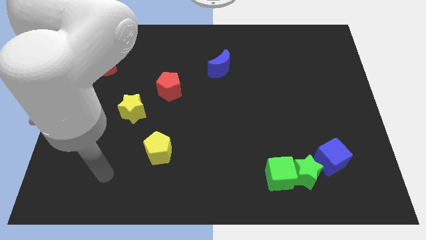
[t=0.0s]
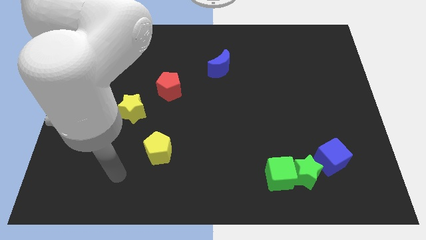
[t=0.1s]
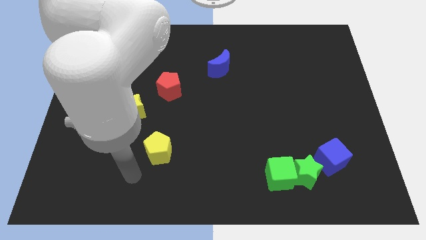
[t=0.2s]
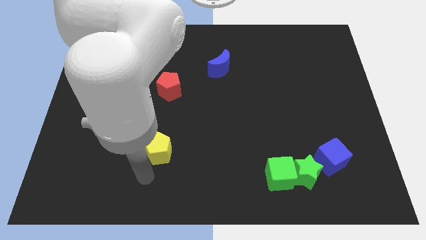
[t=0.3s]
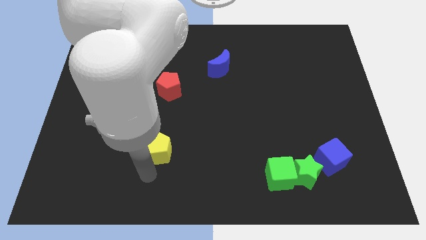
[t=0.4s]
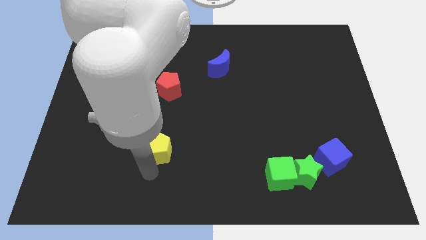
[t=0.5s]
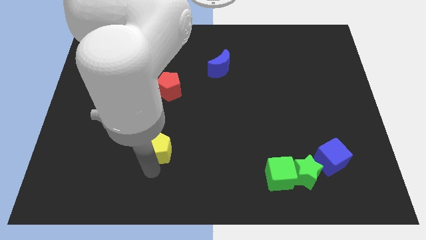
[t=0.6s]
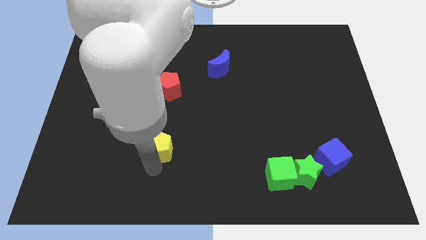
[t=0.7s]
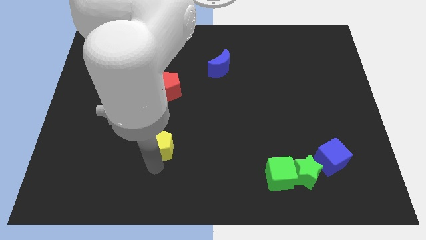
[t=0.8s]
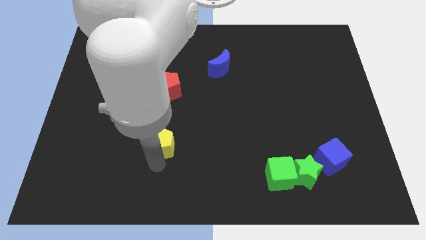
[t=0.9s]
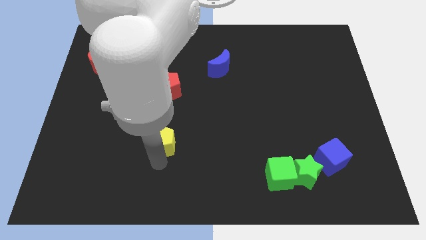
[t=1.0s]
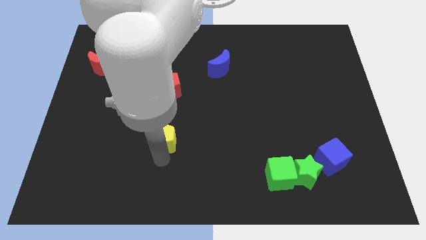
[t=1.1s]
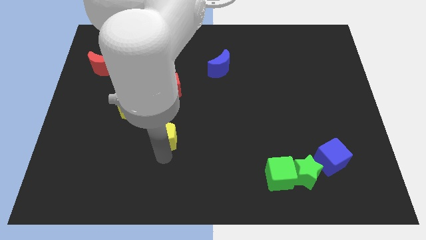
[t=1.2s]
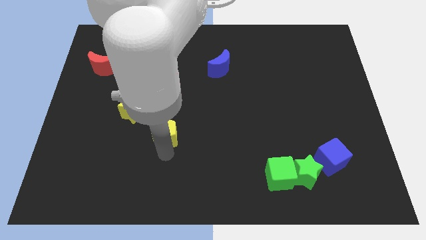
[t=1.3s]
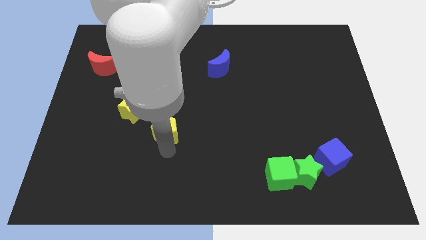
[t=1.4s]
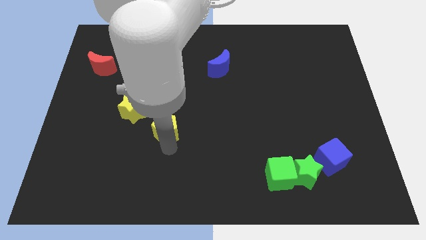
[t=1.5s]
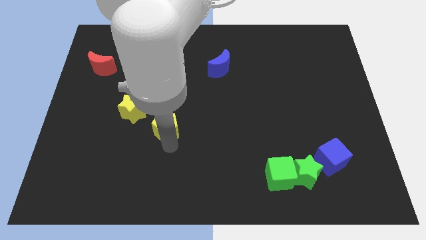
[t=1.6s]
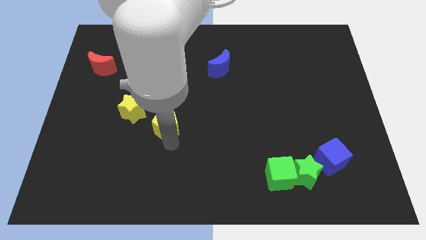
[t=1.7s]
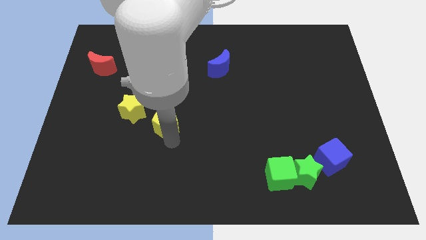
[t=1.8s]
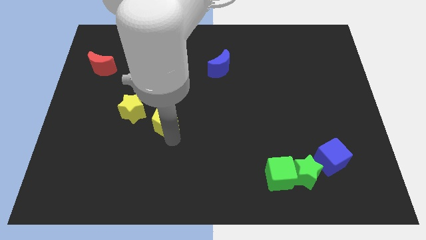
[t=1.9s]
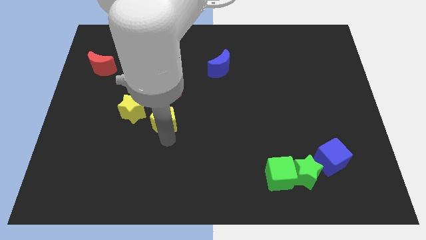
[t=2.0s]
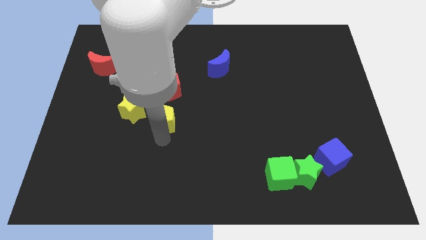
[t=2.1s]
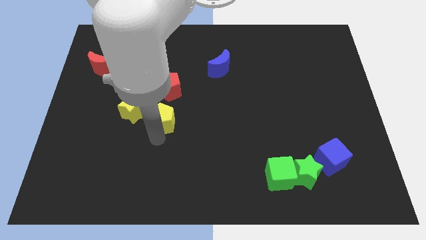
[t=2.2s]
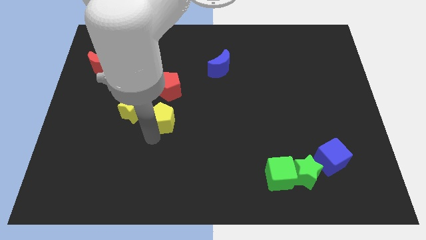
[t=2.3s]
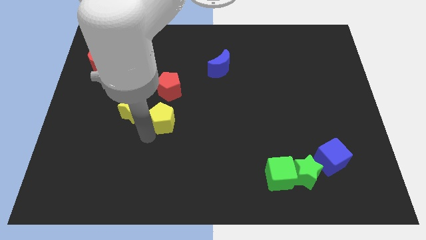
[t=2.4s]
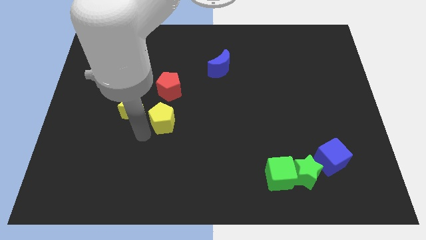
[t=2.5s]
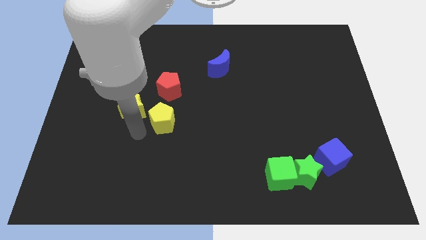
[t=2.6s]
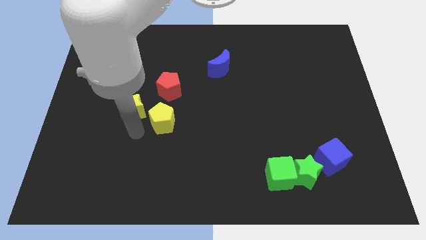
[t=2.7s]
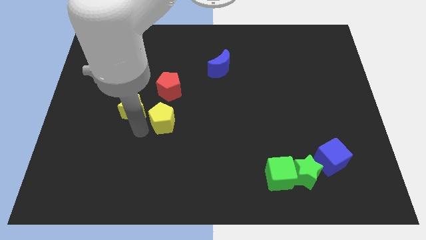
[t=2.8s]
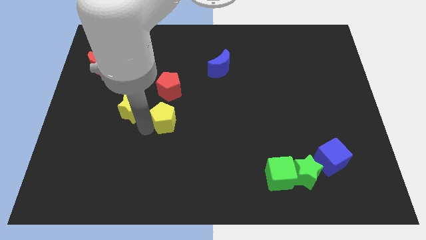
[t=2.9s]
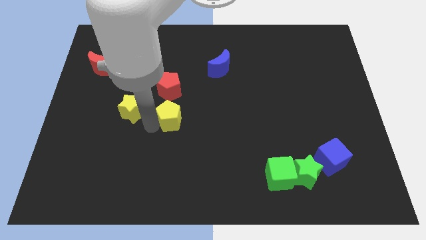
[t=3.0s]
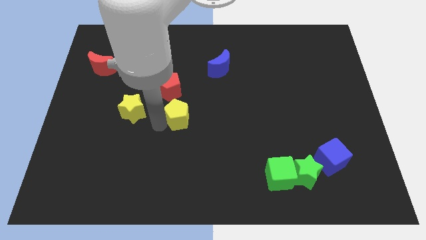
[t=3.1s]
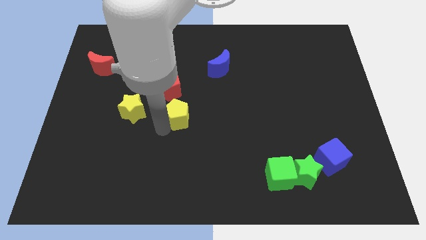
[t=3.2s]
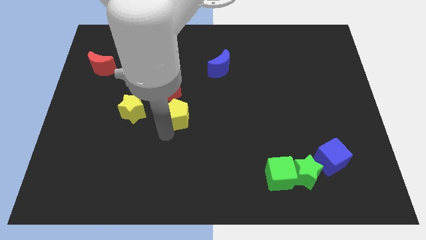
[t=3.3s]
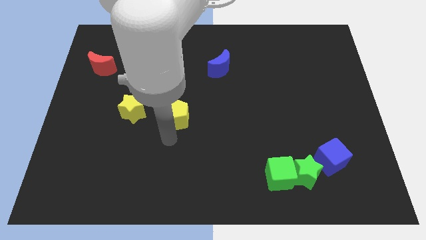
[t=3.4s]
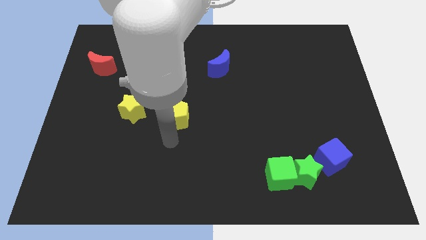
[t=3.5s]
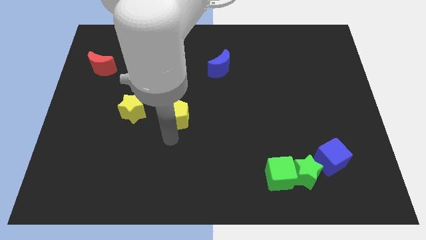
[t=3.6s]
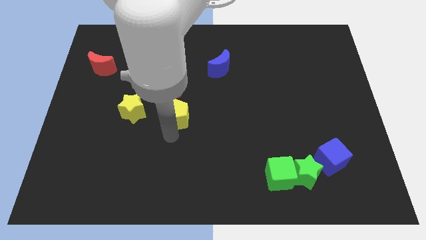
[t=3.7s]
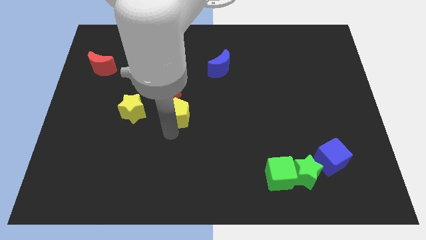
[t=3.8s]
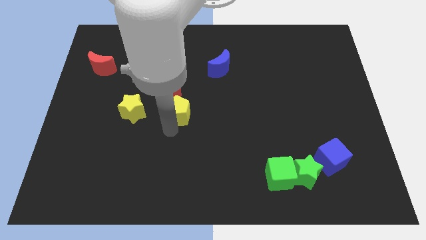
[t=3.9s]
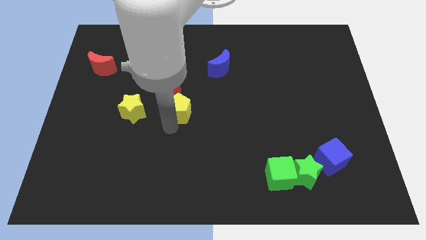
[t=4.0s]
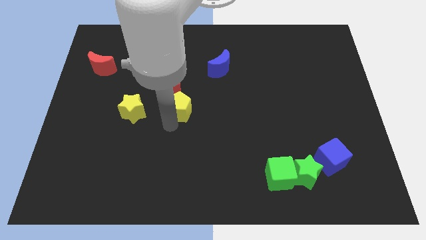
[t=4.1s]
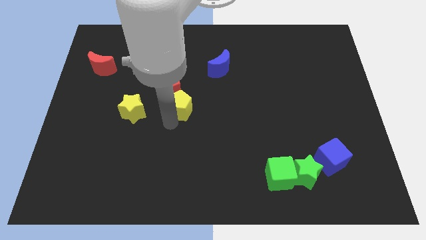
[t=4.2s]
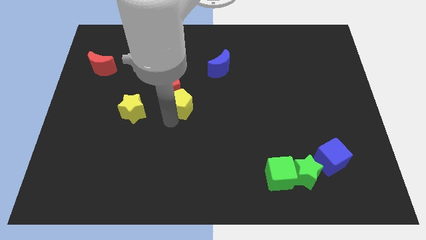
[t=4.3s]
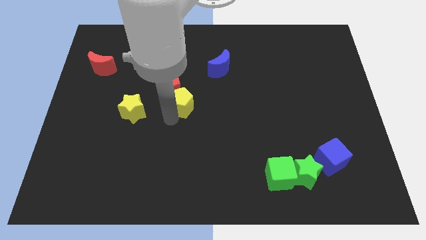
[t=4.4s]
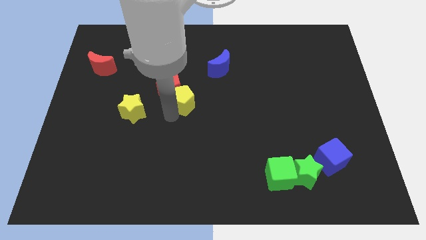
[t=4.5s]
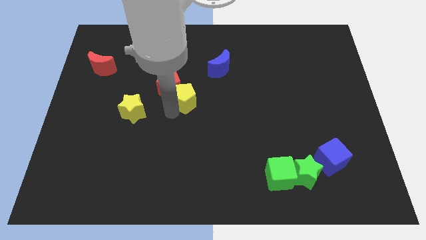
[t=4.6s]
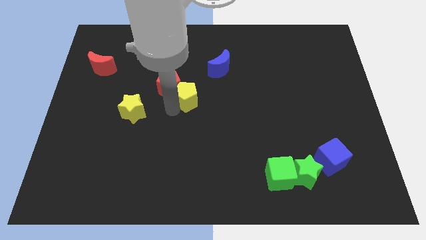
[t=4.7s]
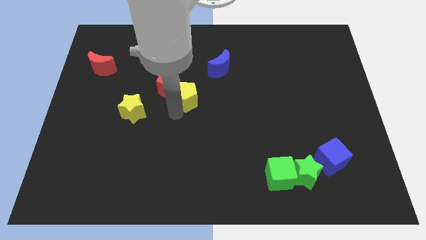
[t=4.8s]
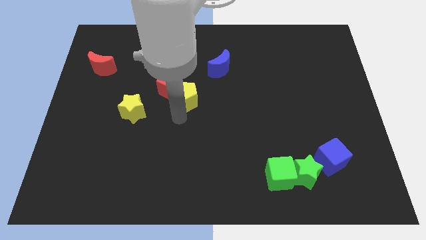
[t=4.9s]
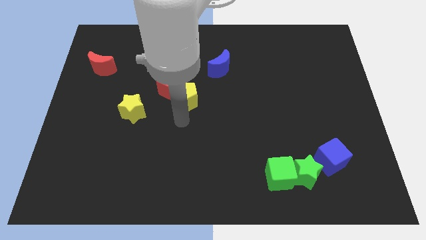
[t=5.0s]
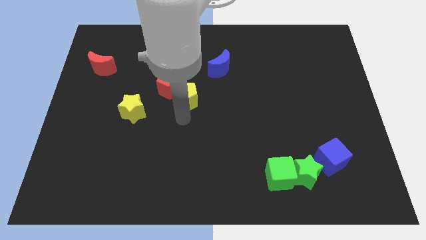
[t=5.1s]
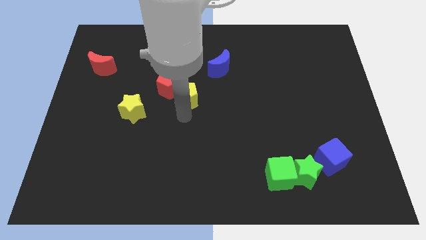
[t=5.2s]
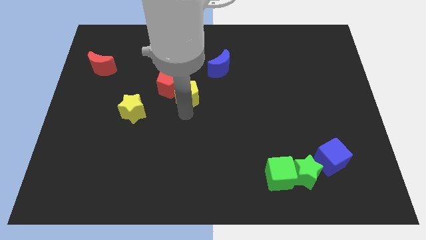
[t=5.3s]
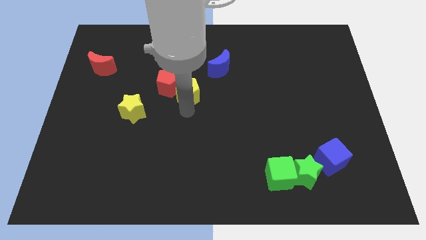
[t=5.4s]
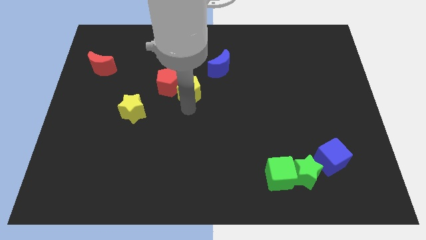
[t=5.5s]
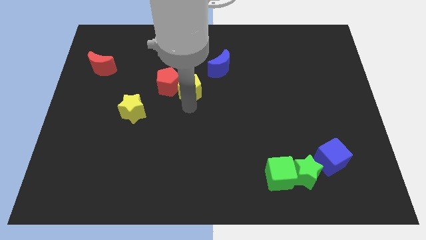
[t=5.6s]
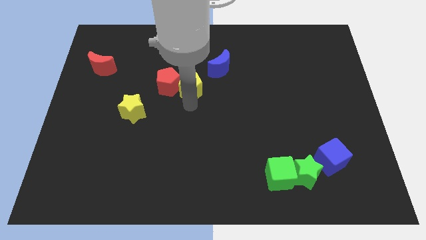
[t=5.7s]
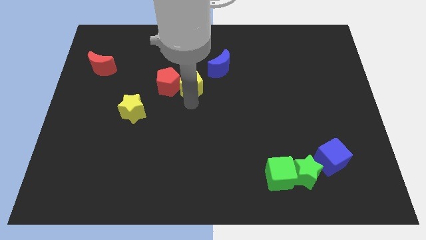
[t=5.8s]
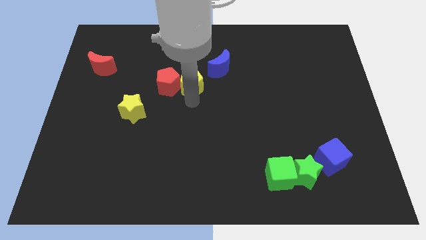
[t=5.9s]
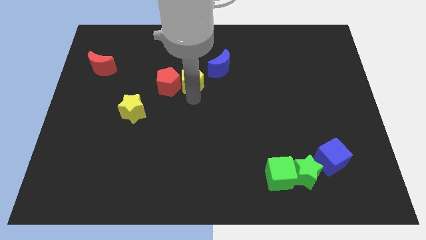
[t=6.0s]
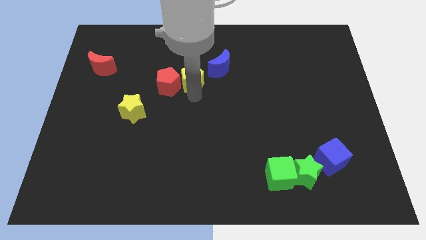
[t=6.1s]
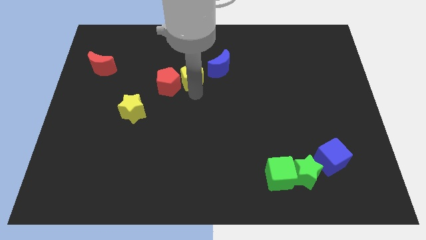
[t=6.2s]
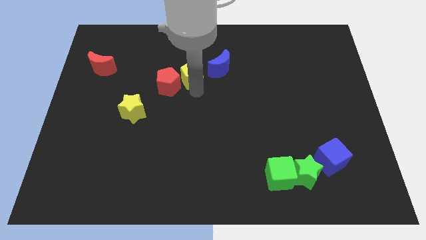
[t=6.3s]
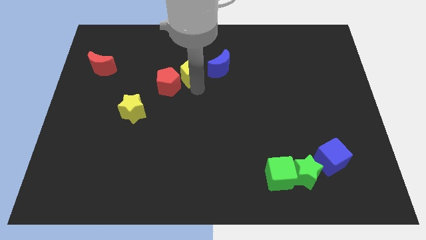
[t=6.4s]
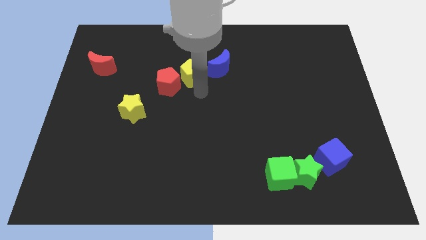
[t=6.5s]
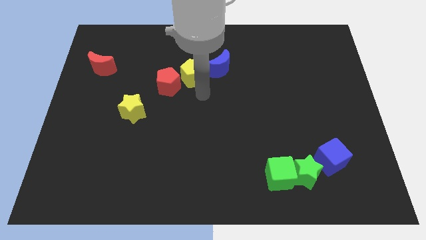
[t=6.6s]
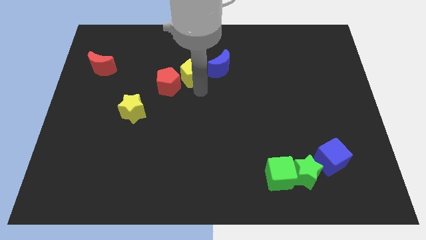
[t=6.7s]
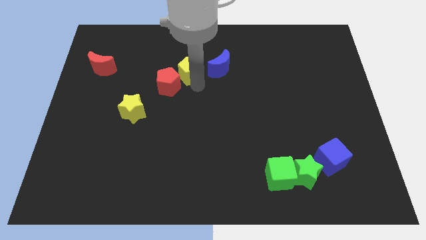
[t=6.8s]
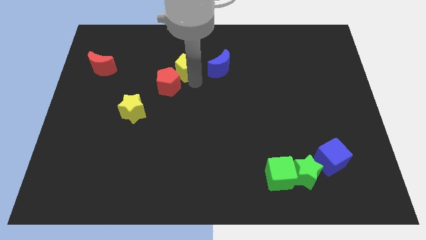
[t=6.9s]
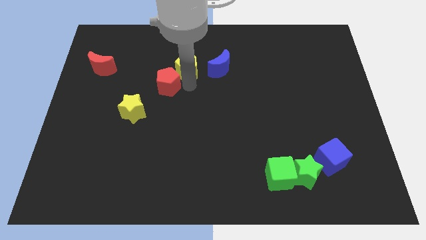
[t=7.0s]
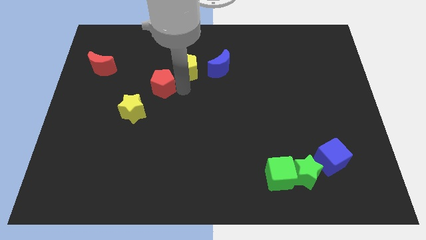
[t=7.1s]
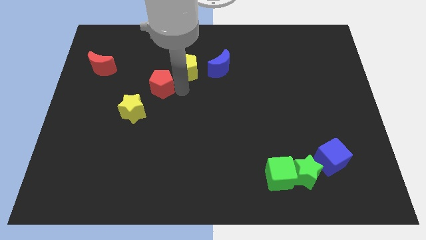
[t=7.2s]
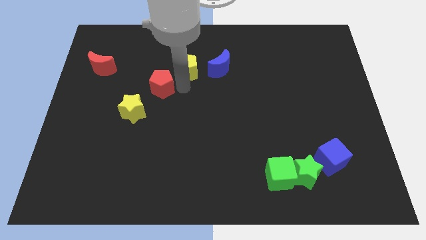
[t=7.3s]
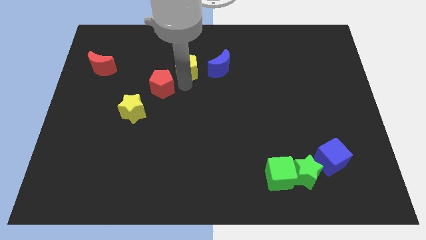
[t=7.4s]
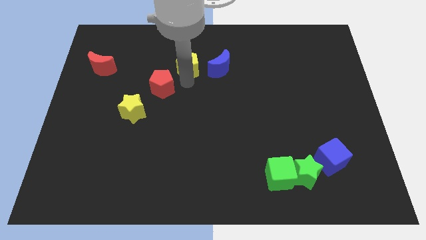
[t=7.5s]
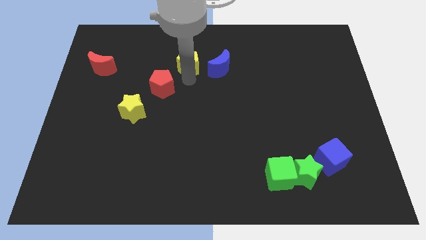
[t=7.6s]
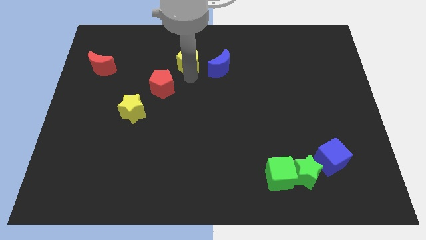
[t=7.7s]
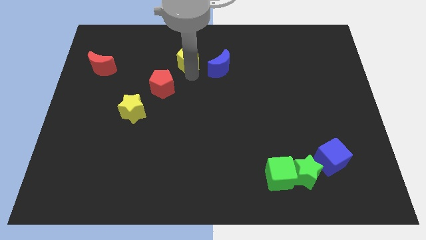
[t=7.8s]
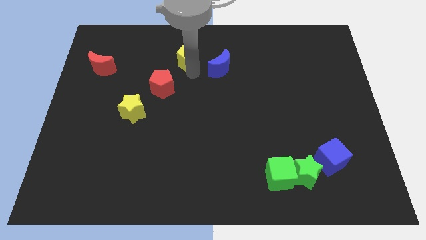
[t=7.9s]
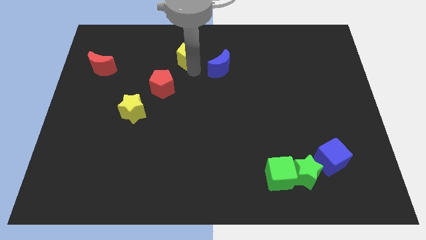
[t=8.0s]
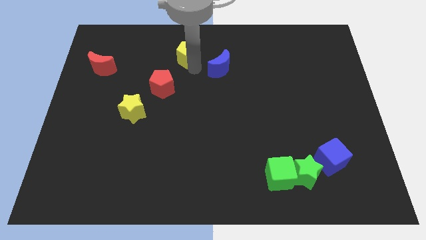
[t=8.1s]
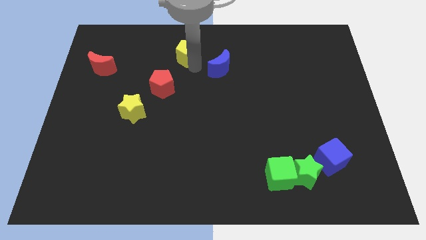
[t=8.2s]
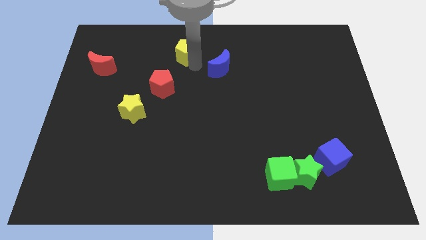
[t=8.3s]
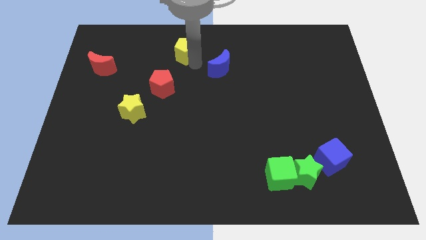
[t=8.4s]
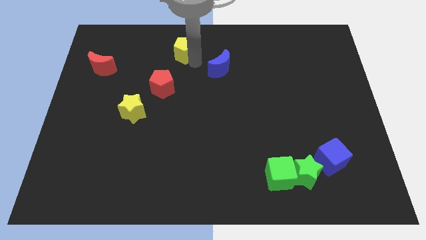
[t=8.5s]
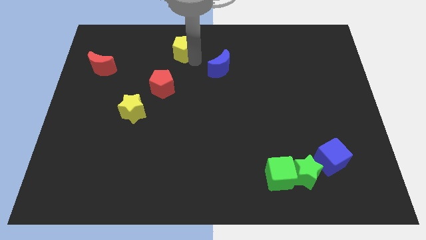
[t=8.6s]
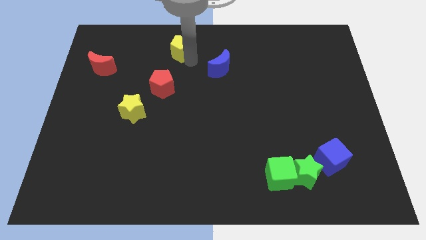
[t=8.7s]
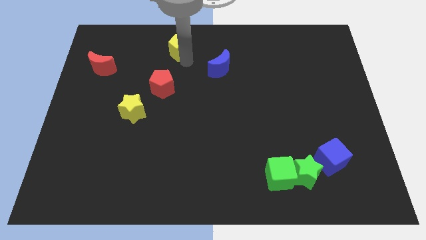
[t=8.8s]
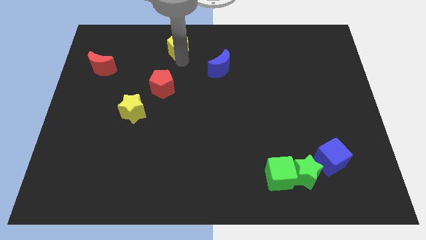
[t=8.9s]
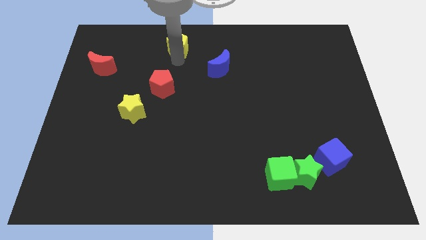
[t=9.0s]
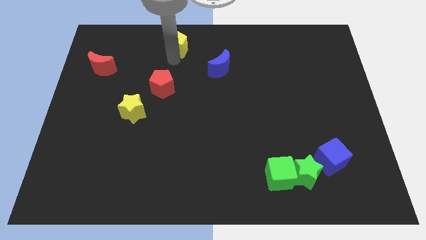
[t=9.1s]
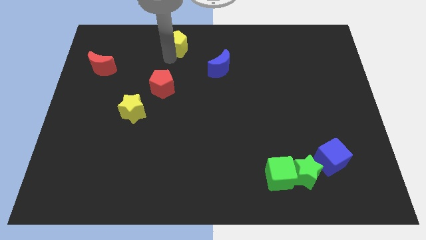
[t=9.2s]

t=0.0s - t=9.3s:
put the yellow pentagon to the towards your base
